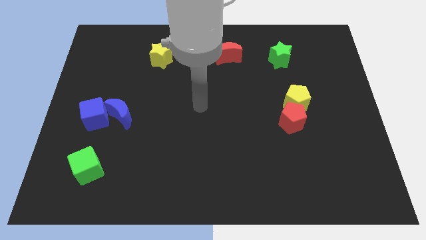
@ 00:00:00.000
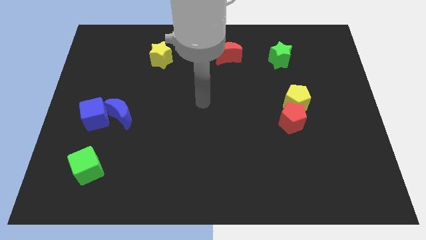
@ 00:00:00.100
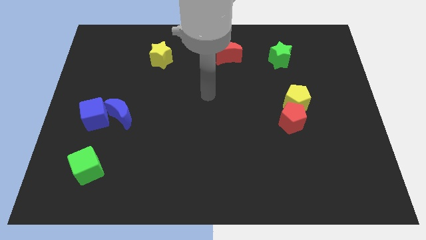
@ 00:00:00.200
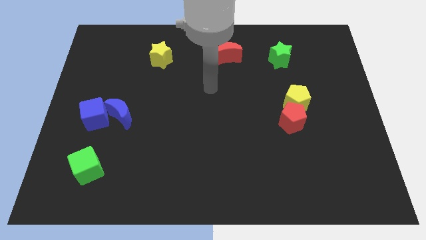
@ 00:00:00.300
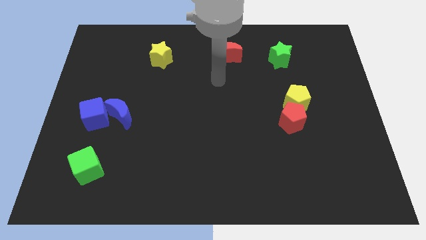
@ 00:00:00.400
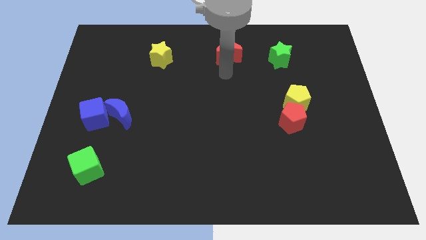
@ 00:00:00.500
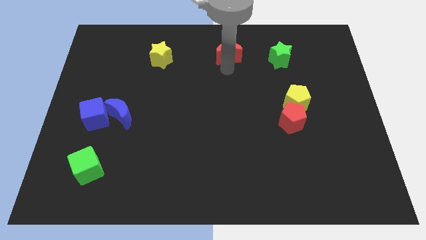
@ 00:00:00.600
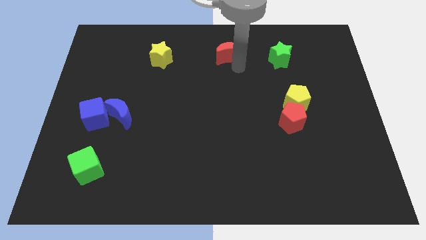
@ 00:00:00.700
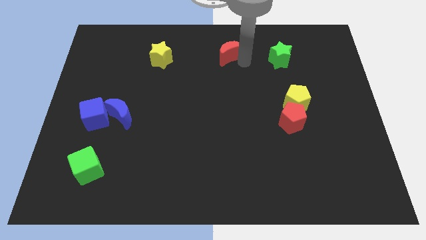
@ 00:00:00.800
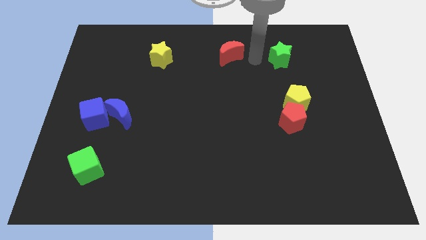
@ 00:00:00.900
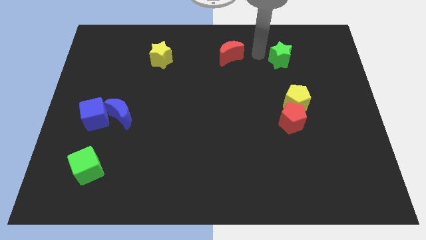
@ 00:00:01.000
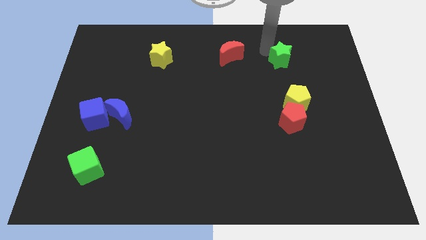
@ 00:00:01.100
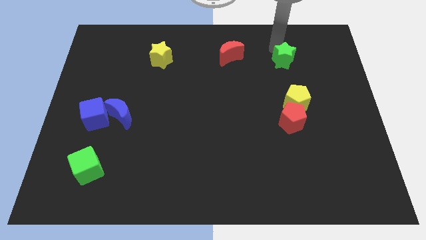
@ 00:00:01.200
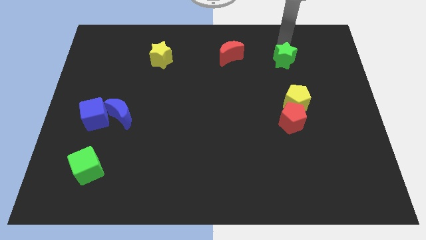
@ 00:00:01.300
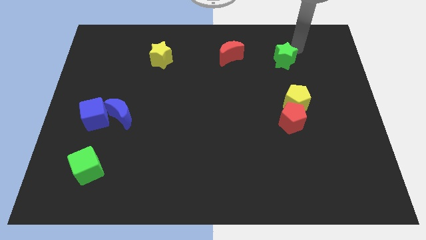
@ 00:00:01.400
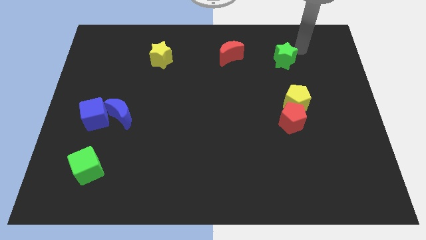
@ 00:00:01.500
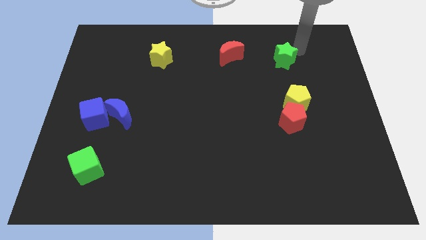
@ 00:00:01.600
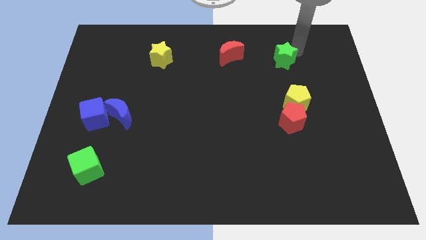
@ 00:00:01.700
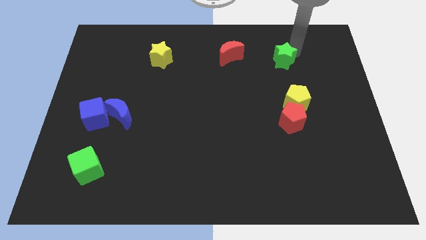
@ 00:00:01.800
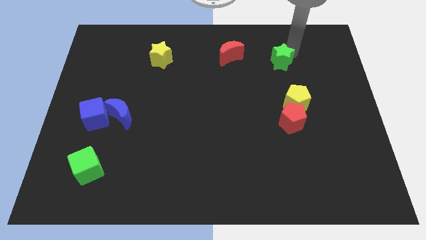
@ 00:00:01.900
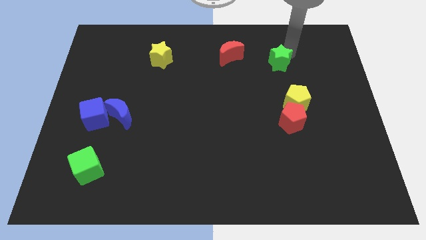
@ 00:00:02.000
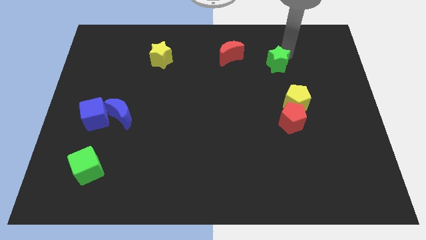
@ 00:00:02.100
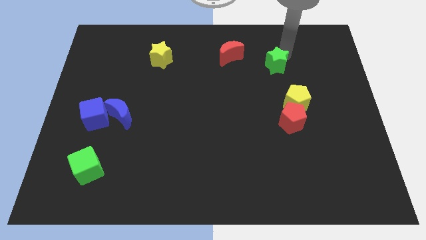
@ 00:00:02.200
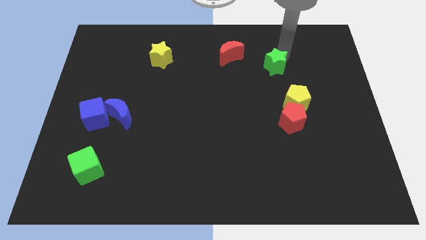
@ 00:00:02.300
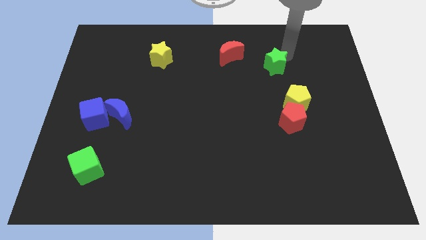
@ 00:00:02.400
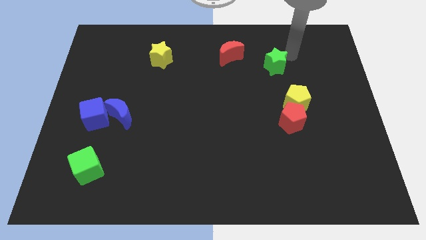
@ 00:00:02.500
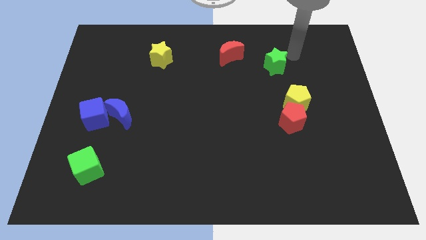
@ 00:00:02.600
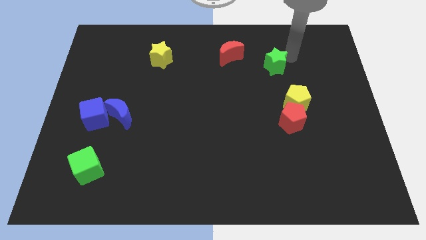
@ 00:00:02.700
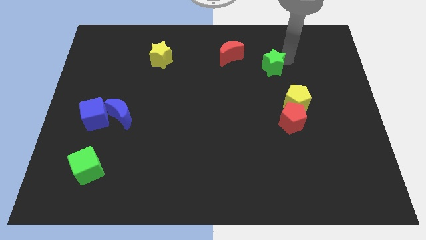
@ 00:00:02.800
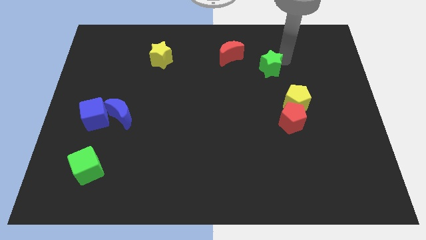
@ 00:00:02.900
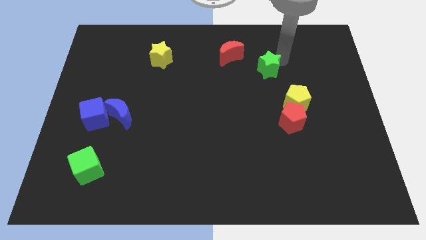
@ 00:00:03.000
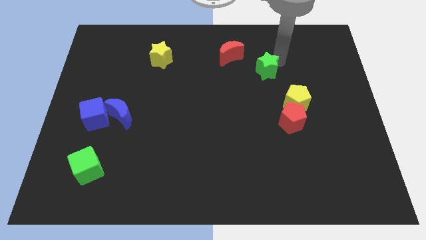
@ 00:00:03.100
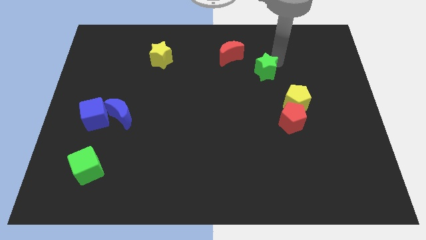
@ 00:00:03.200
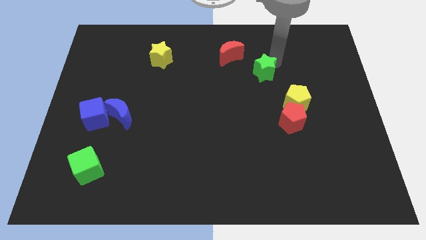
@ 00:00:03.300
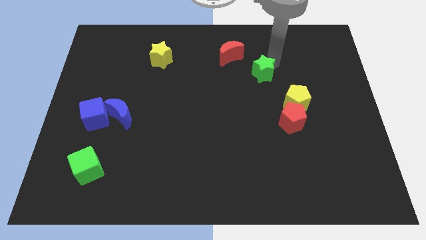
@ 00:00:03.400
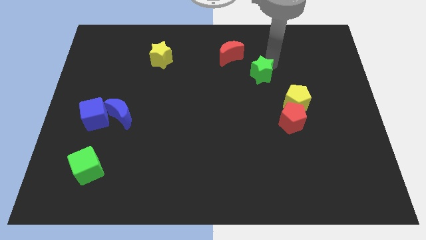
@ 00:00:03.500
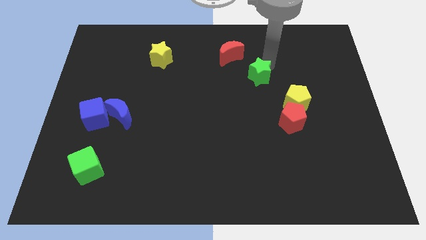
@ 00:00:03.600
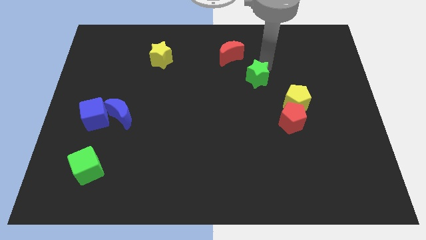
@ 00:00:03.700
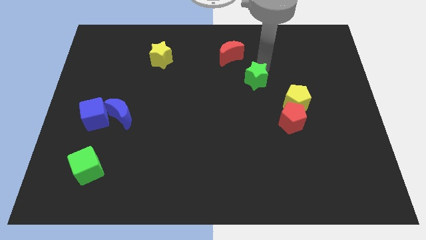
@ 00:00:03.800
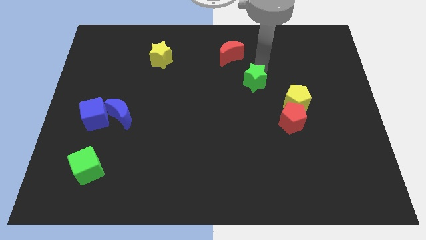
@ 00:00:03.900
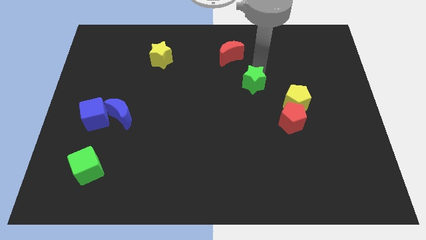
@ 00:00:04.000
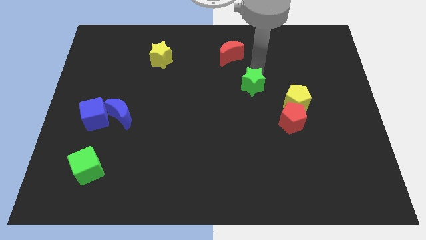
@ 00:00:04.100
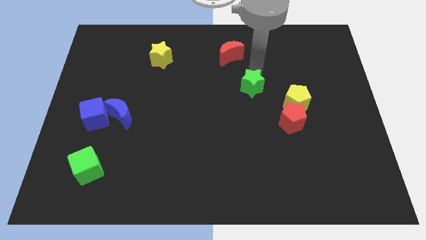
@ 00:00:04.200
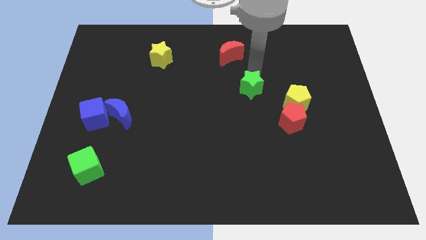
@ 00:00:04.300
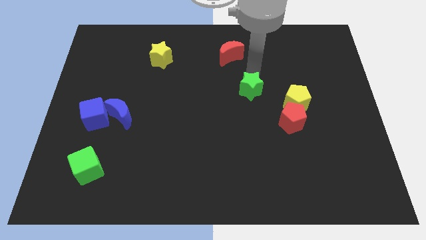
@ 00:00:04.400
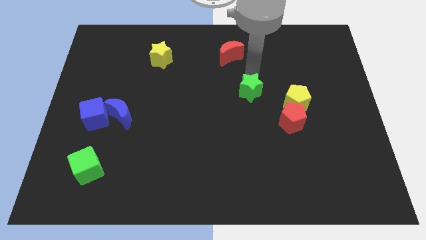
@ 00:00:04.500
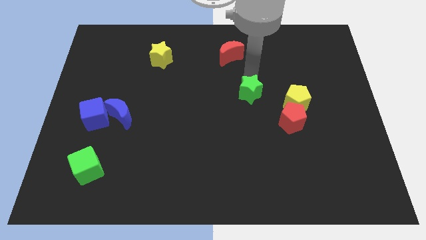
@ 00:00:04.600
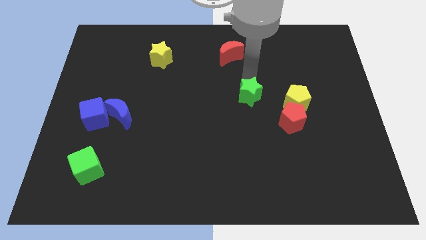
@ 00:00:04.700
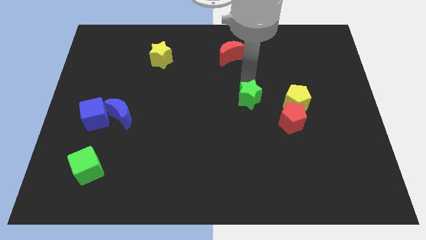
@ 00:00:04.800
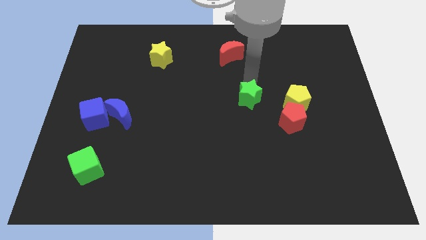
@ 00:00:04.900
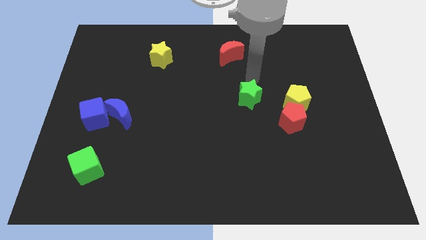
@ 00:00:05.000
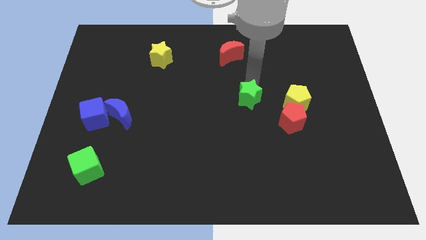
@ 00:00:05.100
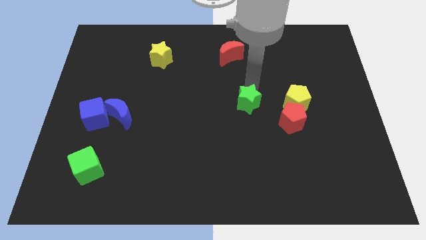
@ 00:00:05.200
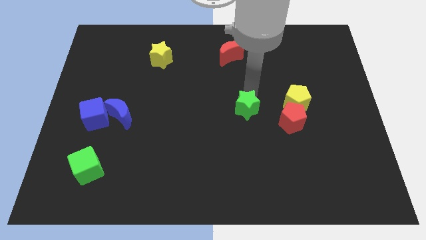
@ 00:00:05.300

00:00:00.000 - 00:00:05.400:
put the green star to the left side of the red pentagon

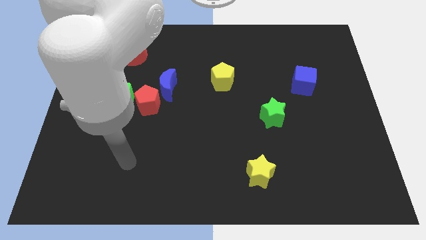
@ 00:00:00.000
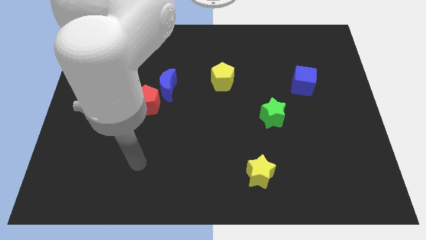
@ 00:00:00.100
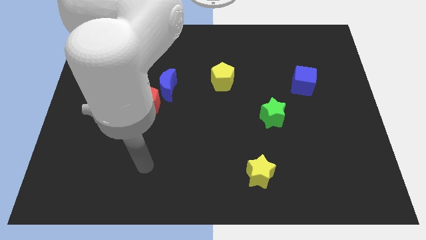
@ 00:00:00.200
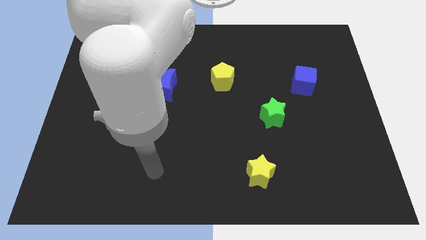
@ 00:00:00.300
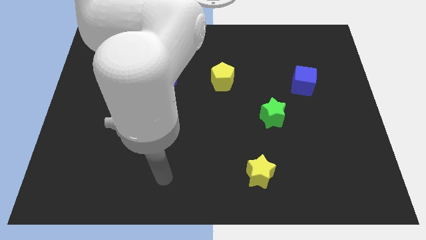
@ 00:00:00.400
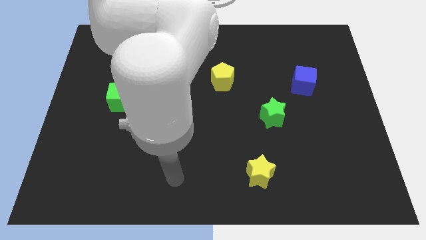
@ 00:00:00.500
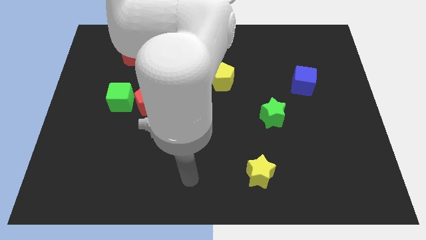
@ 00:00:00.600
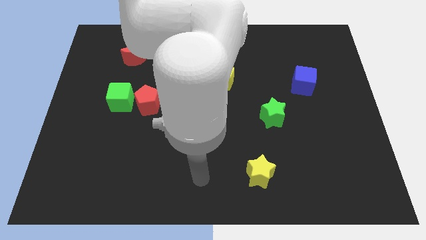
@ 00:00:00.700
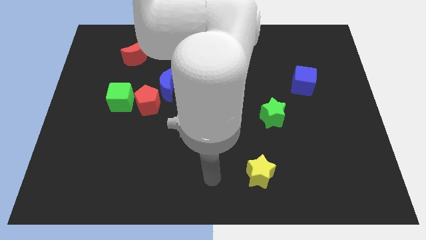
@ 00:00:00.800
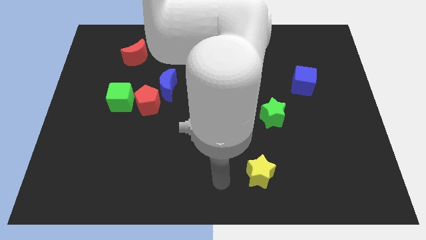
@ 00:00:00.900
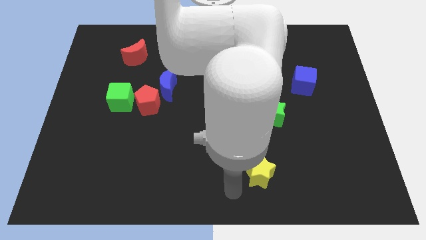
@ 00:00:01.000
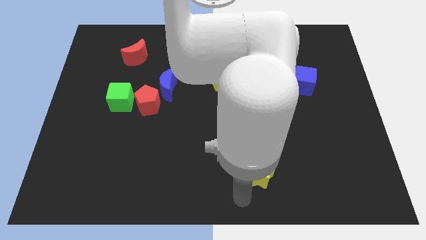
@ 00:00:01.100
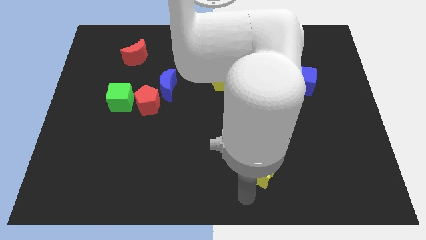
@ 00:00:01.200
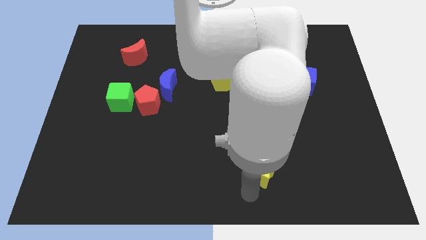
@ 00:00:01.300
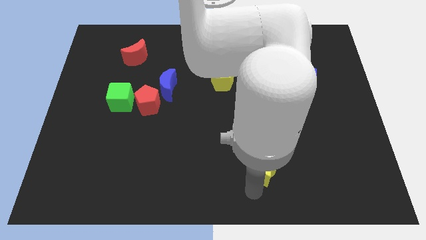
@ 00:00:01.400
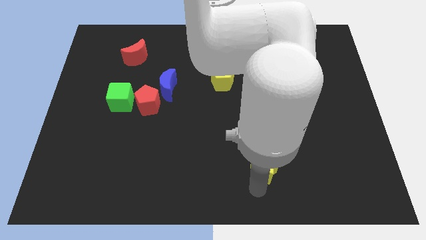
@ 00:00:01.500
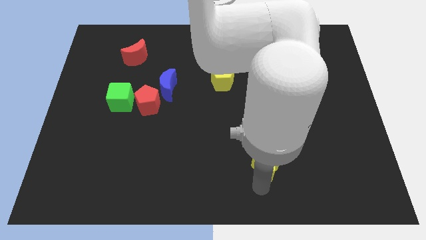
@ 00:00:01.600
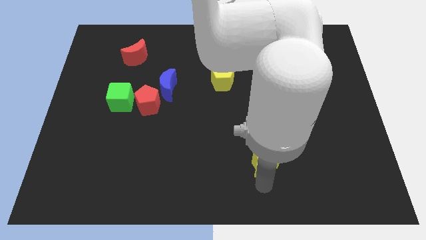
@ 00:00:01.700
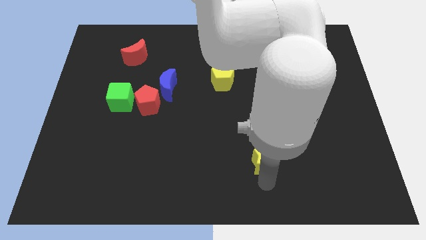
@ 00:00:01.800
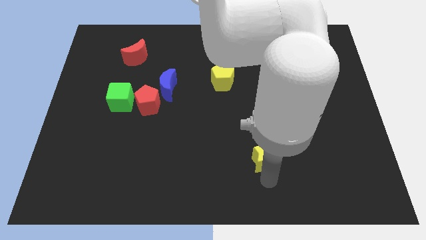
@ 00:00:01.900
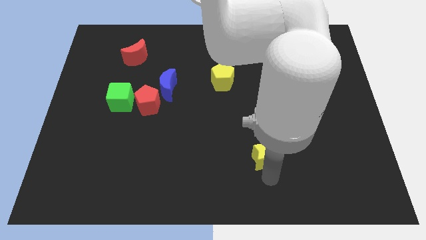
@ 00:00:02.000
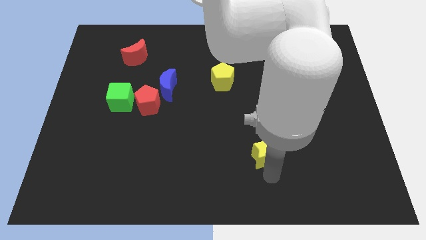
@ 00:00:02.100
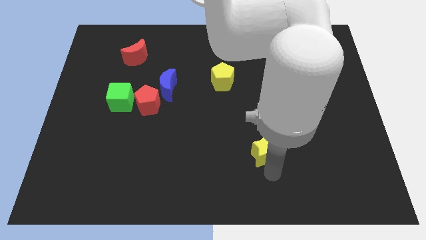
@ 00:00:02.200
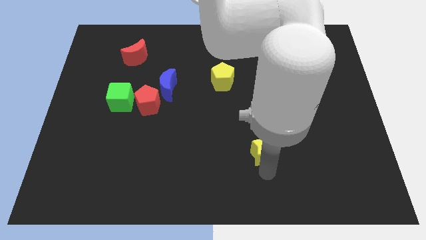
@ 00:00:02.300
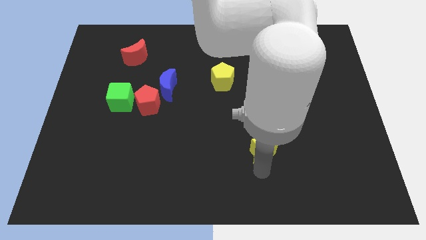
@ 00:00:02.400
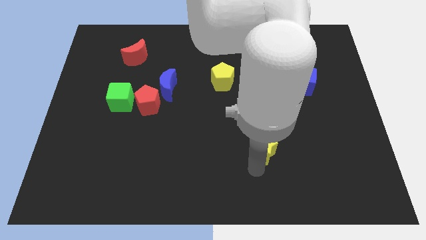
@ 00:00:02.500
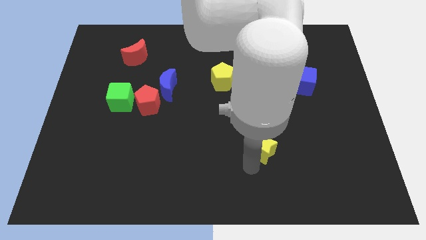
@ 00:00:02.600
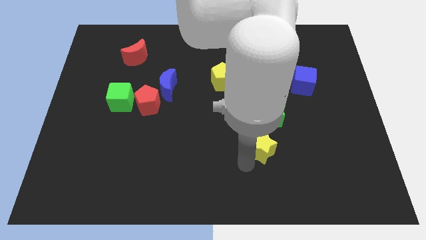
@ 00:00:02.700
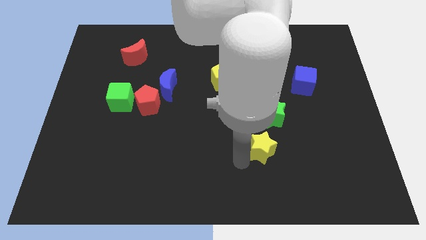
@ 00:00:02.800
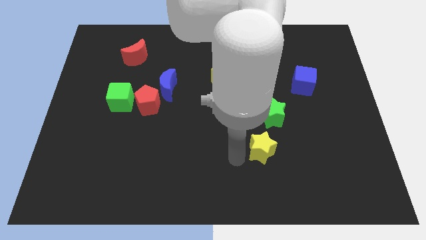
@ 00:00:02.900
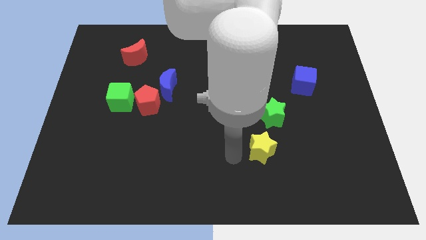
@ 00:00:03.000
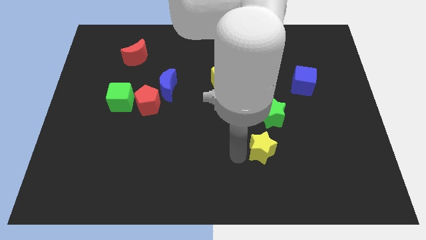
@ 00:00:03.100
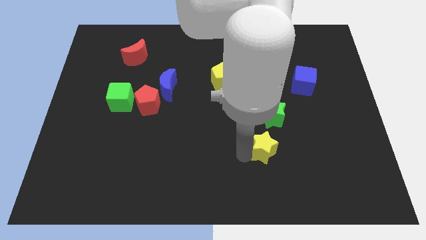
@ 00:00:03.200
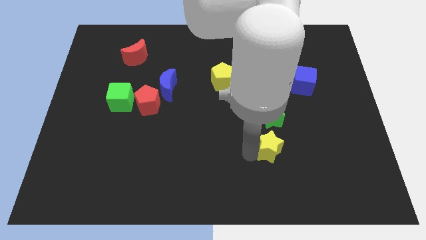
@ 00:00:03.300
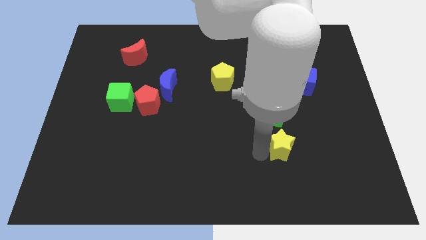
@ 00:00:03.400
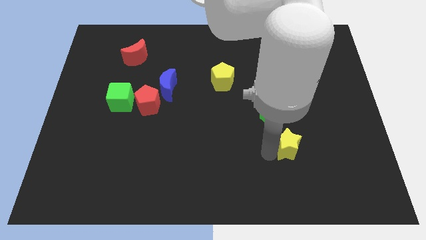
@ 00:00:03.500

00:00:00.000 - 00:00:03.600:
move the yellow star to the bottom right side of the green star
